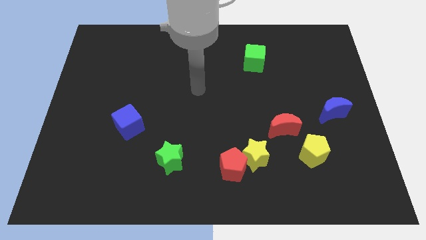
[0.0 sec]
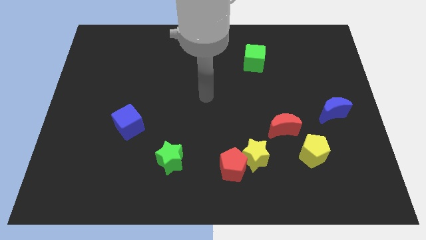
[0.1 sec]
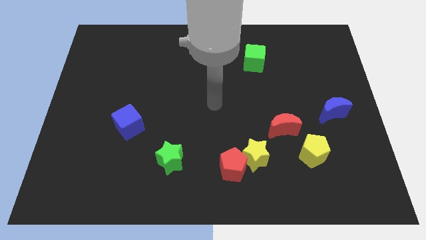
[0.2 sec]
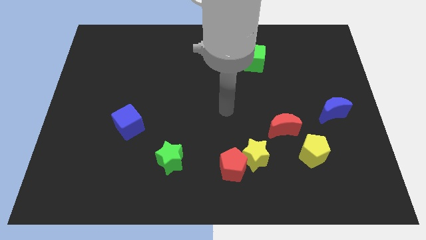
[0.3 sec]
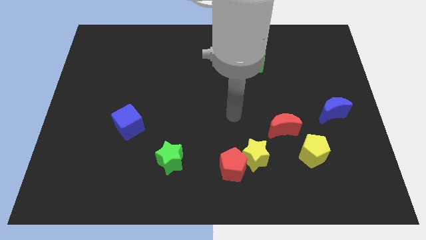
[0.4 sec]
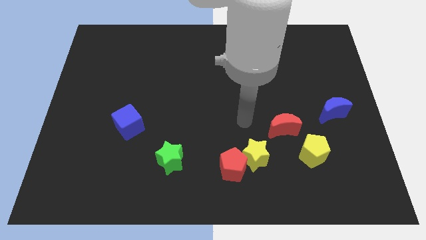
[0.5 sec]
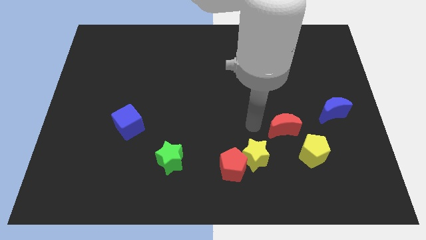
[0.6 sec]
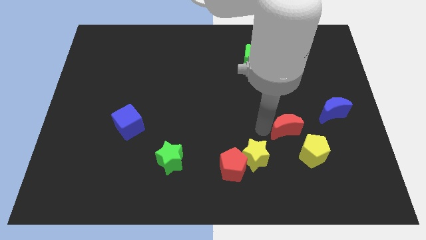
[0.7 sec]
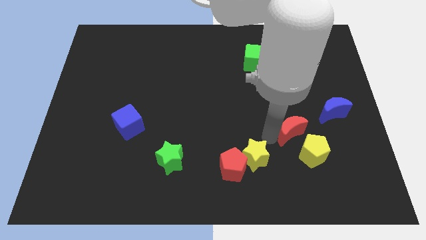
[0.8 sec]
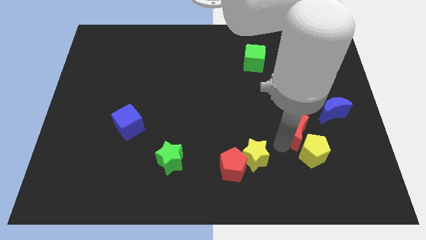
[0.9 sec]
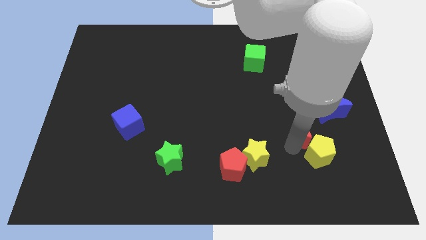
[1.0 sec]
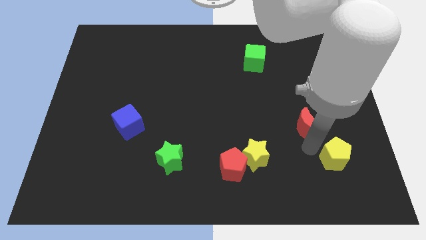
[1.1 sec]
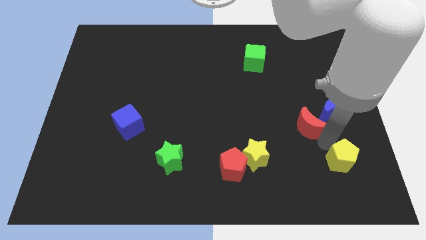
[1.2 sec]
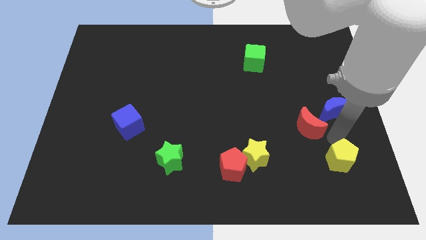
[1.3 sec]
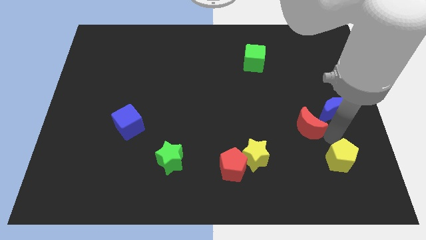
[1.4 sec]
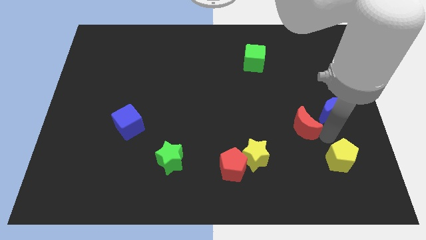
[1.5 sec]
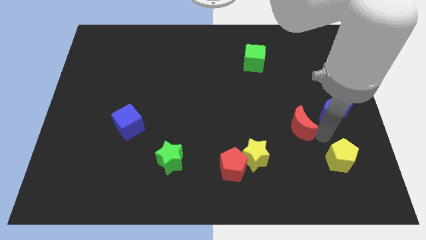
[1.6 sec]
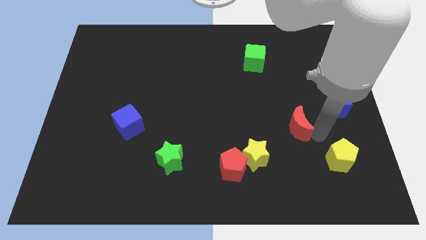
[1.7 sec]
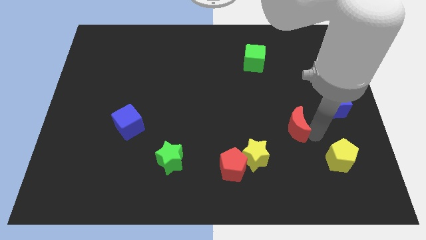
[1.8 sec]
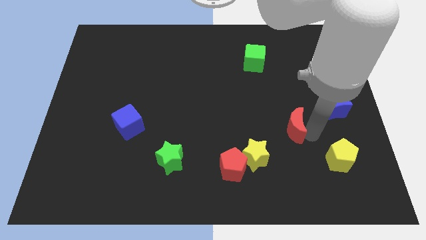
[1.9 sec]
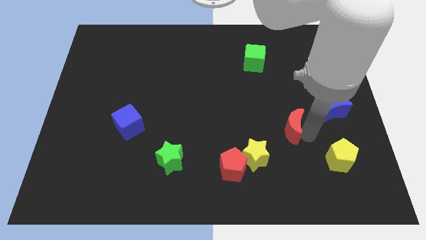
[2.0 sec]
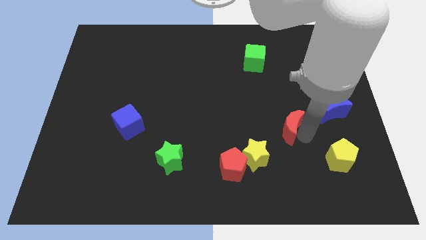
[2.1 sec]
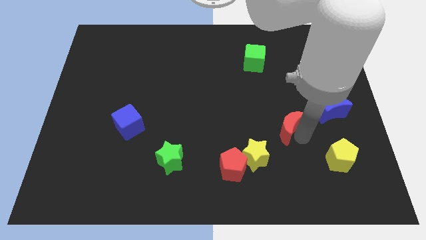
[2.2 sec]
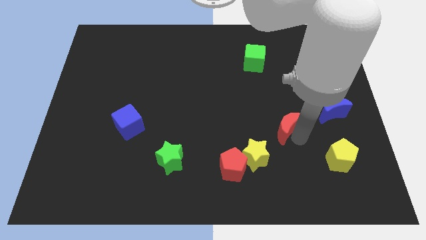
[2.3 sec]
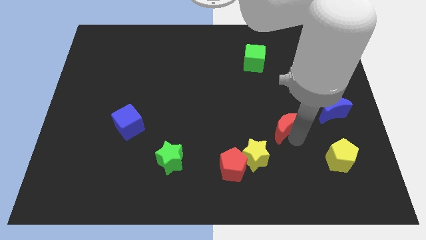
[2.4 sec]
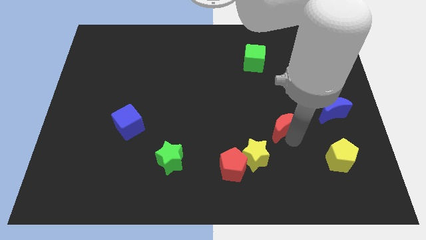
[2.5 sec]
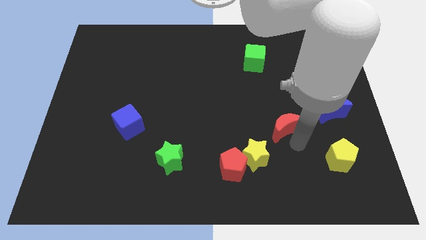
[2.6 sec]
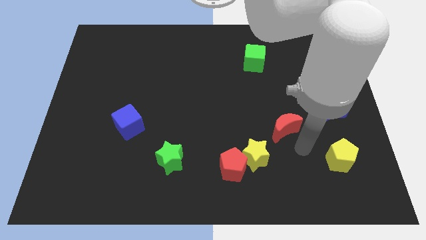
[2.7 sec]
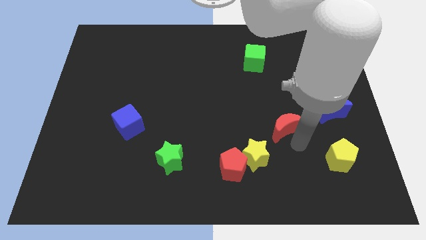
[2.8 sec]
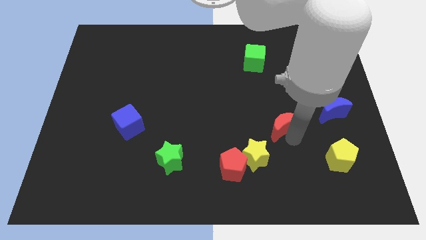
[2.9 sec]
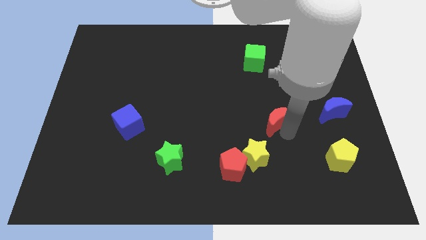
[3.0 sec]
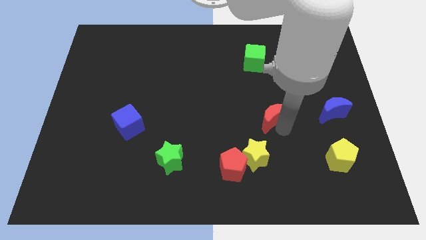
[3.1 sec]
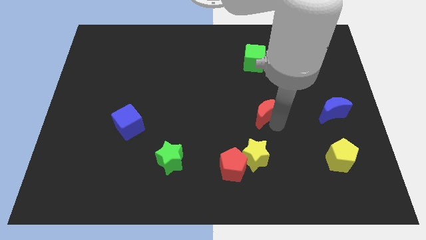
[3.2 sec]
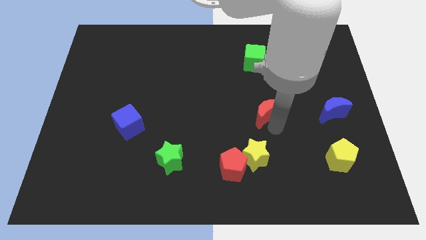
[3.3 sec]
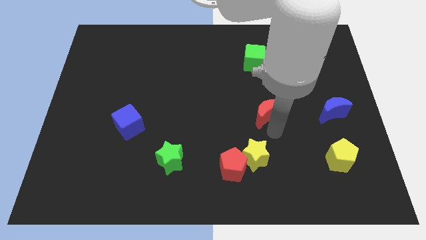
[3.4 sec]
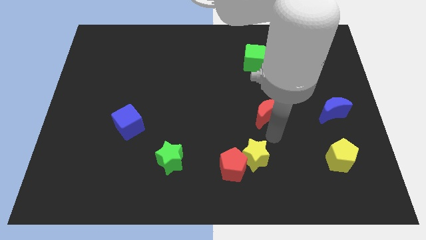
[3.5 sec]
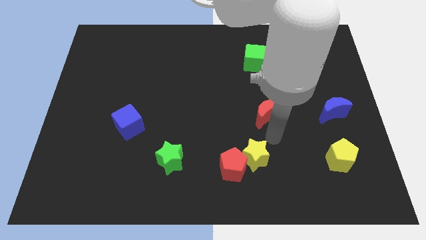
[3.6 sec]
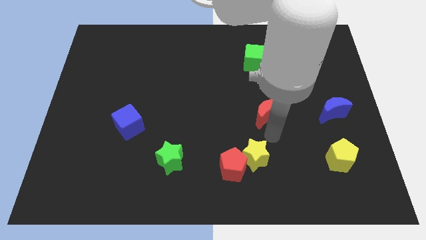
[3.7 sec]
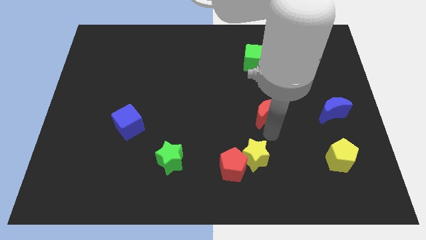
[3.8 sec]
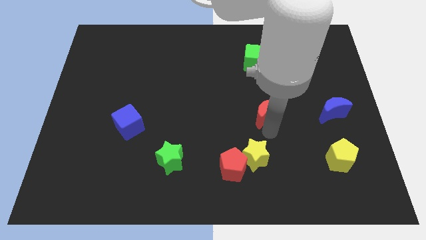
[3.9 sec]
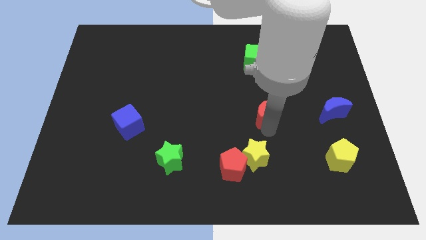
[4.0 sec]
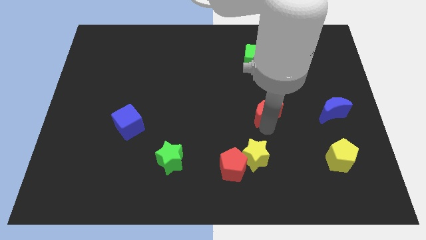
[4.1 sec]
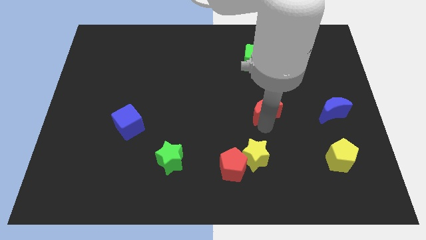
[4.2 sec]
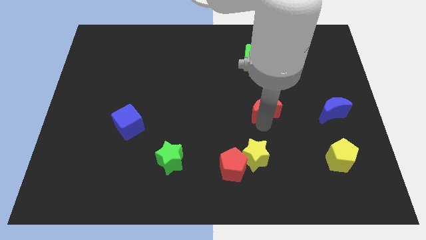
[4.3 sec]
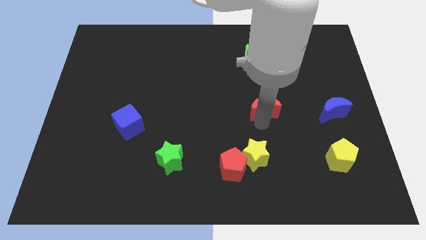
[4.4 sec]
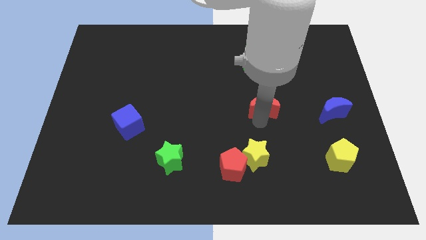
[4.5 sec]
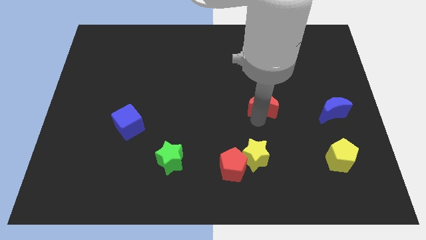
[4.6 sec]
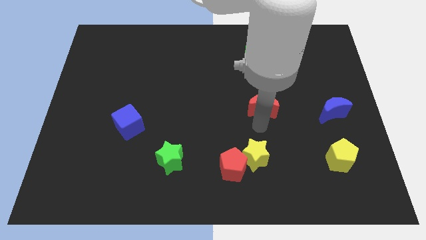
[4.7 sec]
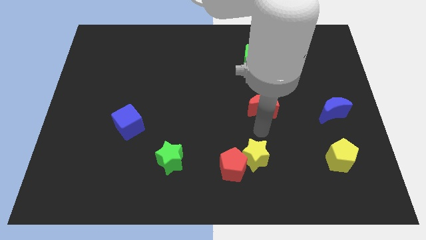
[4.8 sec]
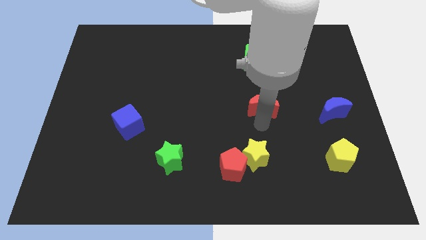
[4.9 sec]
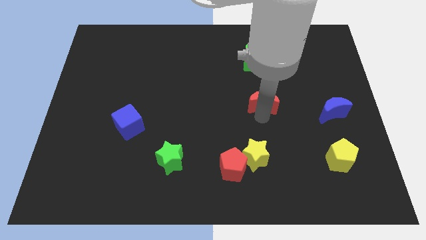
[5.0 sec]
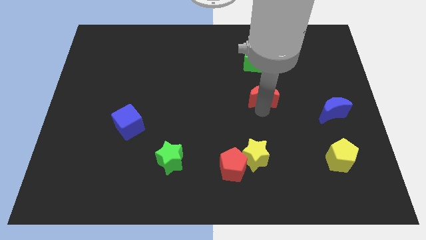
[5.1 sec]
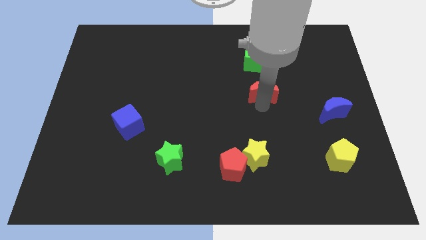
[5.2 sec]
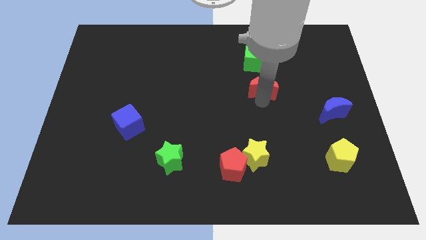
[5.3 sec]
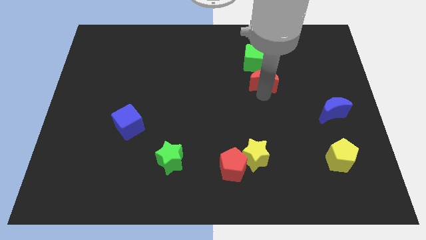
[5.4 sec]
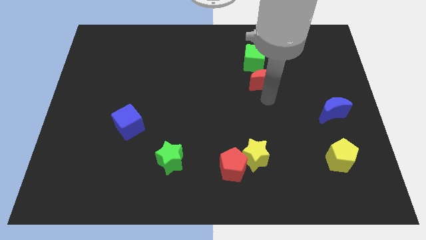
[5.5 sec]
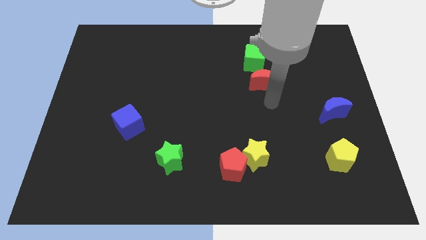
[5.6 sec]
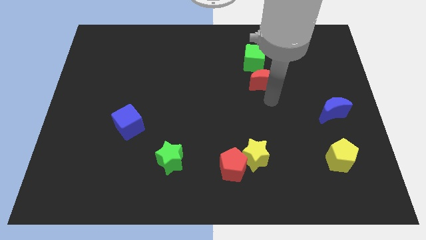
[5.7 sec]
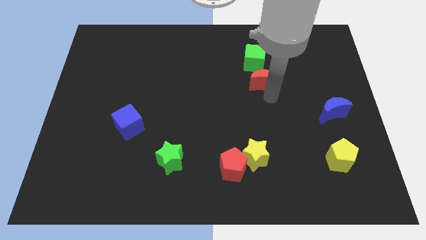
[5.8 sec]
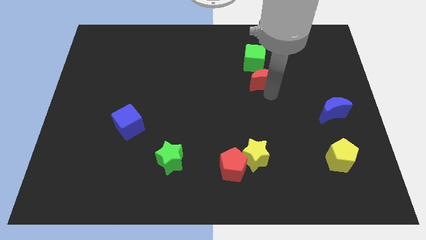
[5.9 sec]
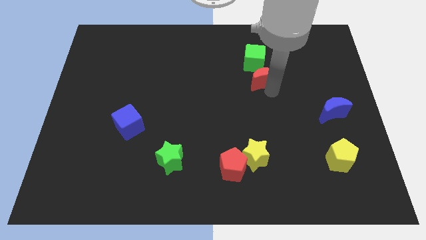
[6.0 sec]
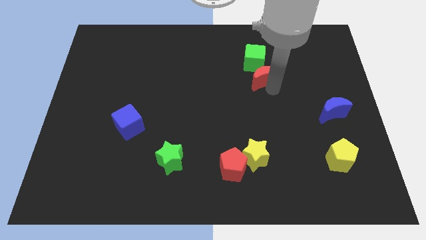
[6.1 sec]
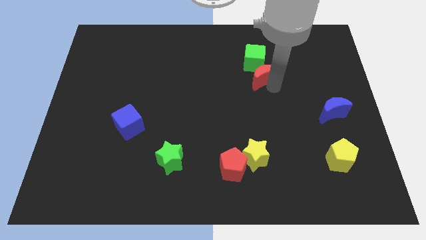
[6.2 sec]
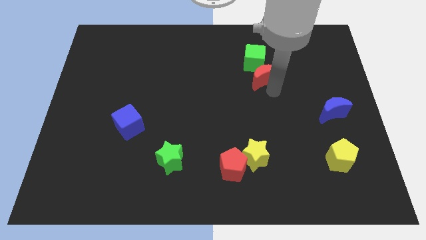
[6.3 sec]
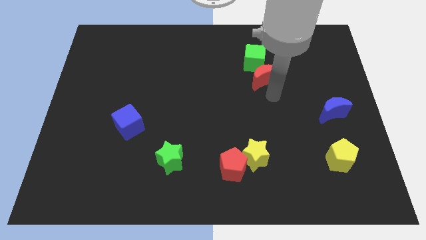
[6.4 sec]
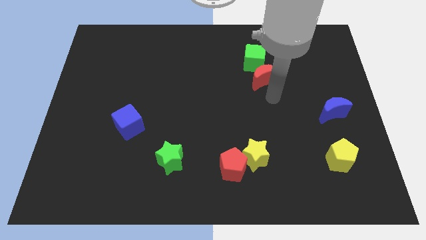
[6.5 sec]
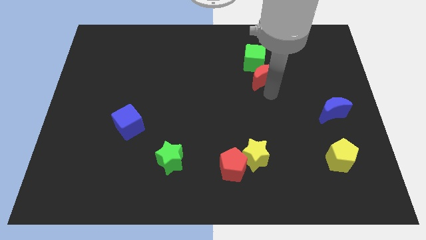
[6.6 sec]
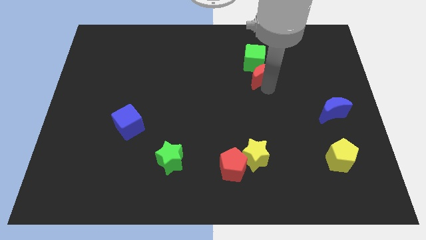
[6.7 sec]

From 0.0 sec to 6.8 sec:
move the red moon towards the green cube

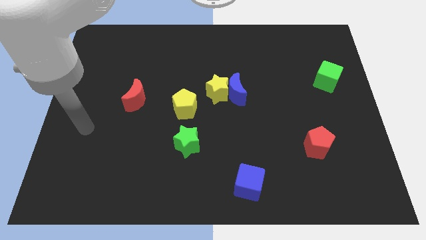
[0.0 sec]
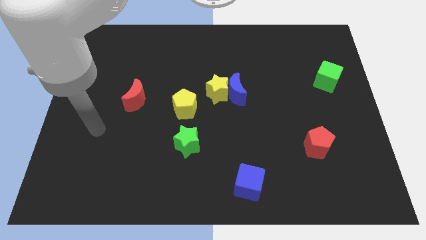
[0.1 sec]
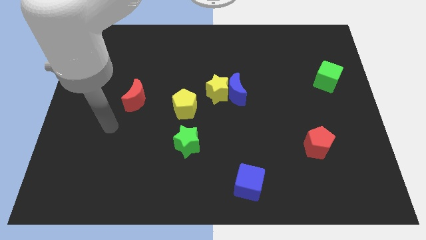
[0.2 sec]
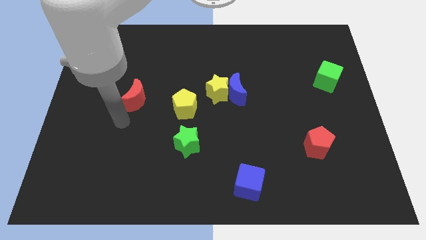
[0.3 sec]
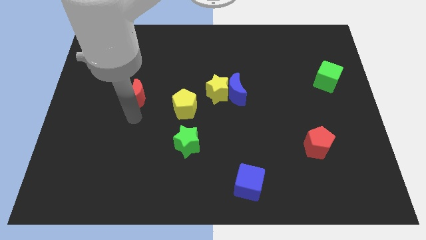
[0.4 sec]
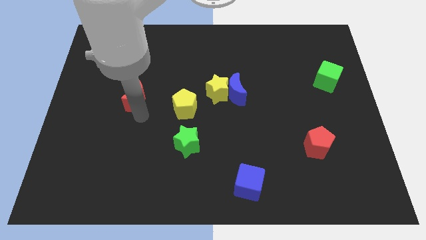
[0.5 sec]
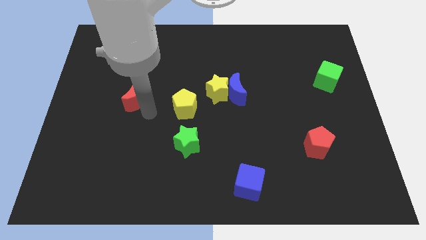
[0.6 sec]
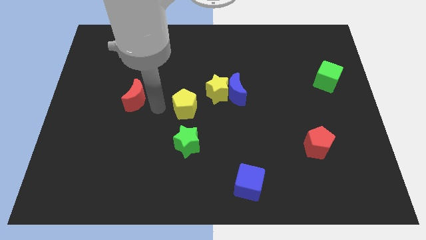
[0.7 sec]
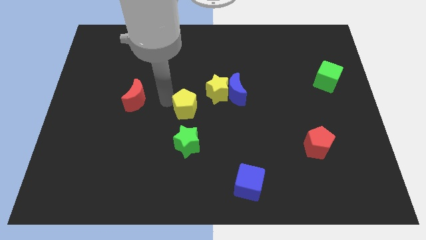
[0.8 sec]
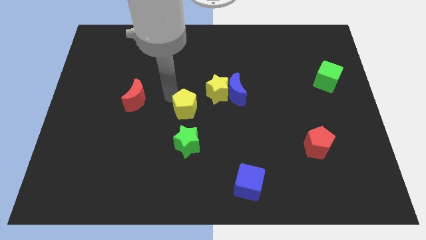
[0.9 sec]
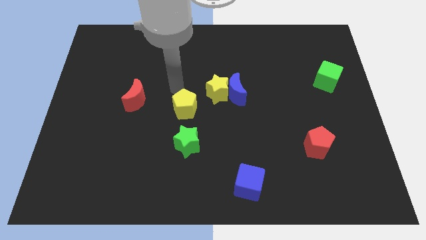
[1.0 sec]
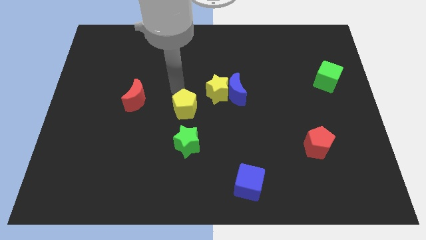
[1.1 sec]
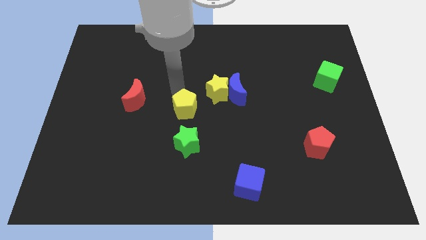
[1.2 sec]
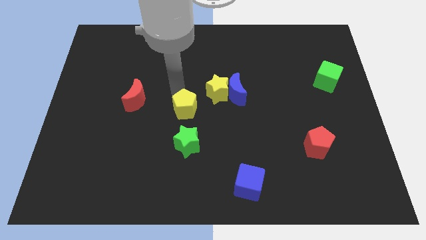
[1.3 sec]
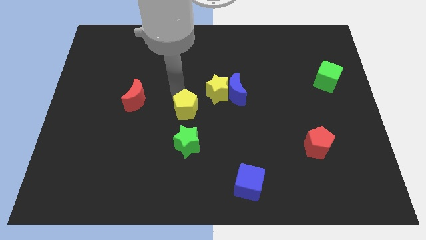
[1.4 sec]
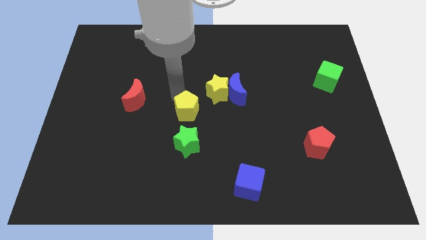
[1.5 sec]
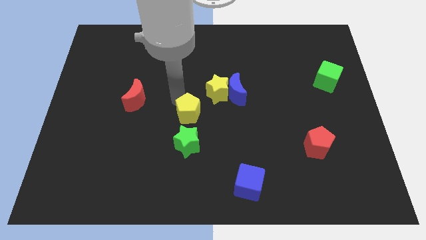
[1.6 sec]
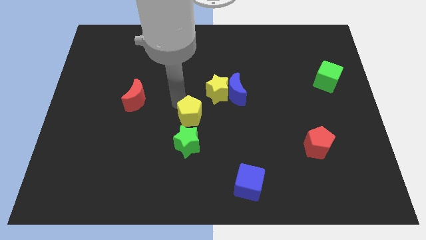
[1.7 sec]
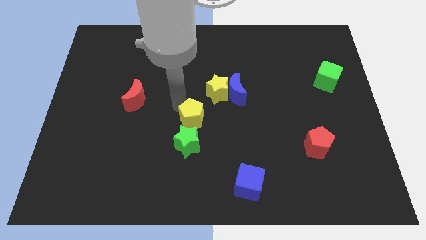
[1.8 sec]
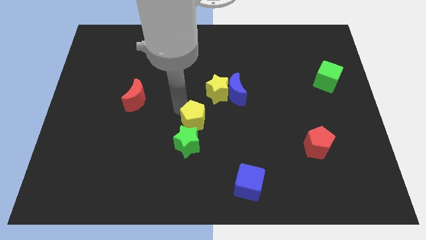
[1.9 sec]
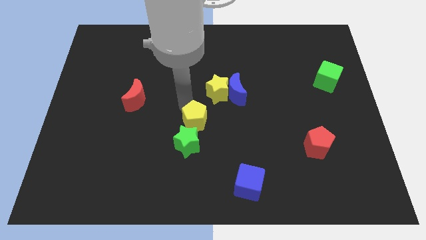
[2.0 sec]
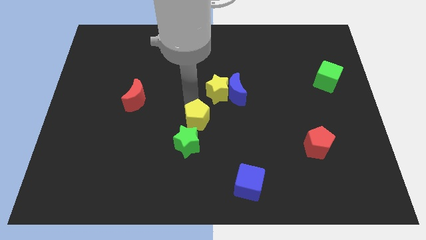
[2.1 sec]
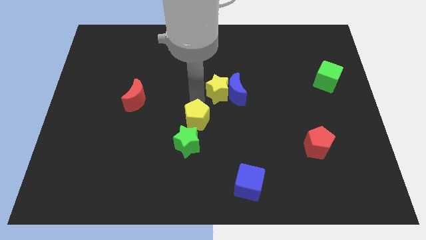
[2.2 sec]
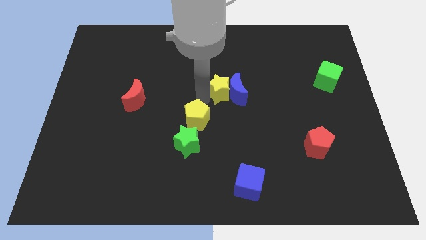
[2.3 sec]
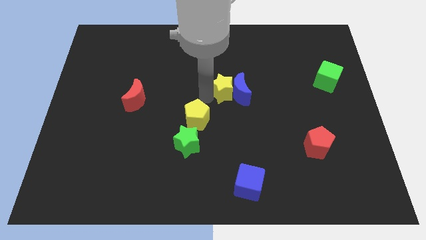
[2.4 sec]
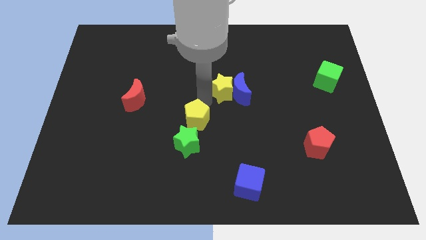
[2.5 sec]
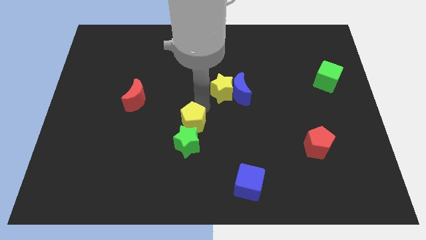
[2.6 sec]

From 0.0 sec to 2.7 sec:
slide the yellow pentagon close to the green star
